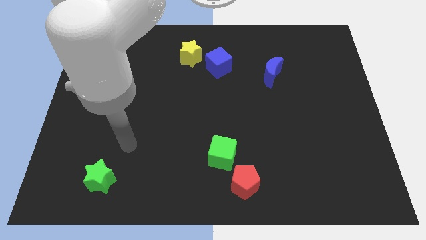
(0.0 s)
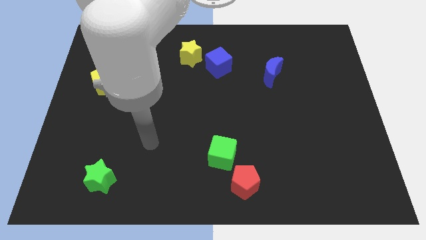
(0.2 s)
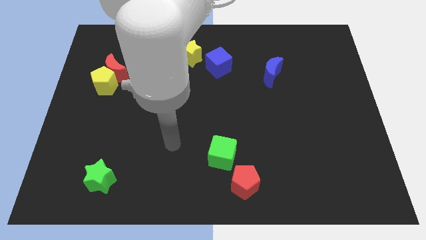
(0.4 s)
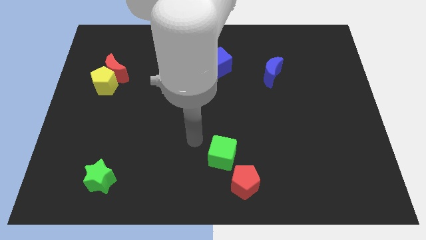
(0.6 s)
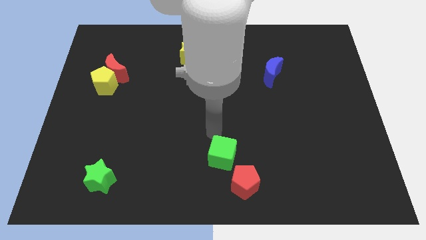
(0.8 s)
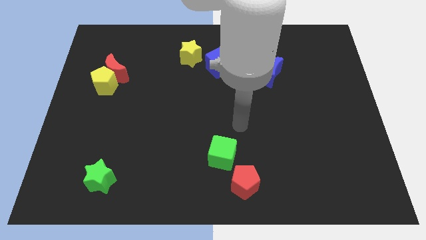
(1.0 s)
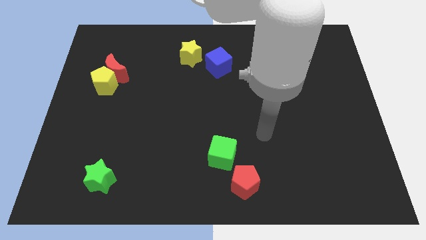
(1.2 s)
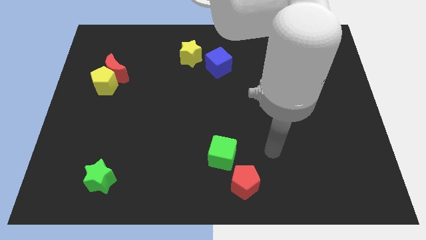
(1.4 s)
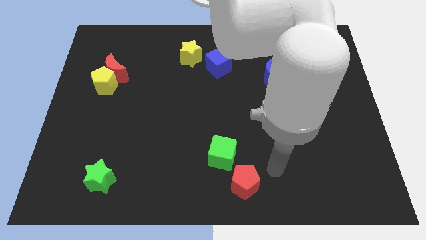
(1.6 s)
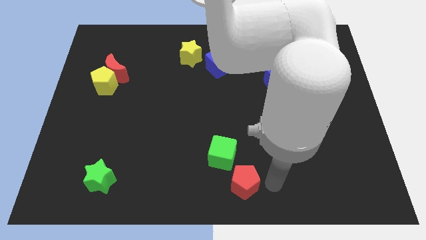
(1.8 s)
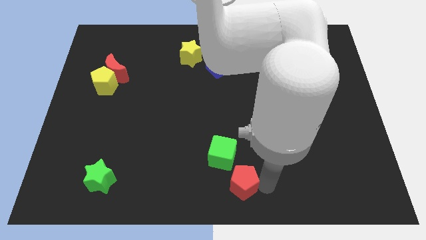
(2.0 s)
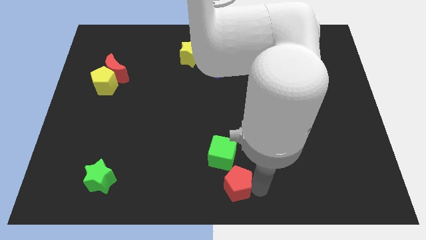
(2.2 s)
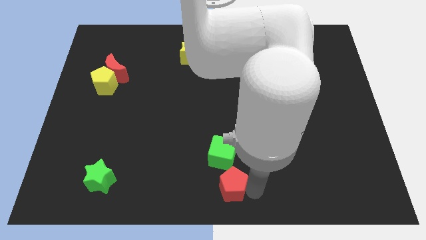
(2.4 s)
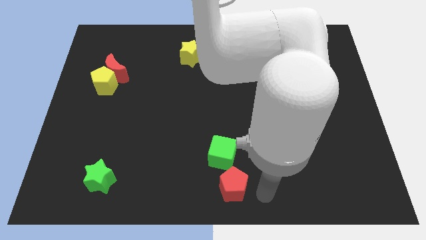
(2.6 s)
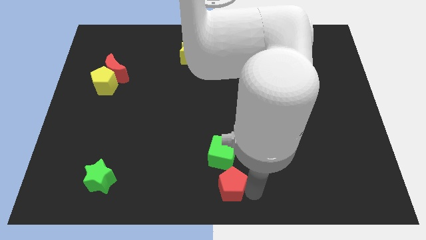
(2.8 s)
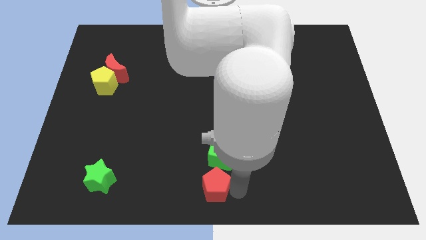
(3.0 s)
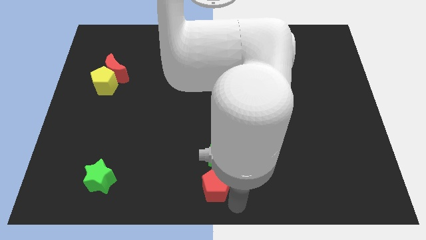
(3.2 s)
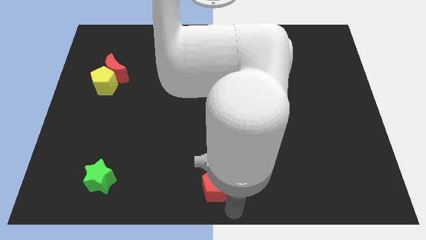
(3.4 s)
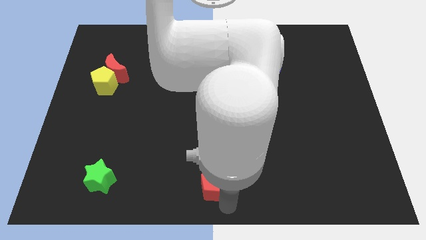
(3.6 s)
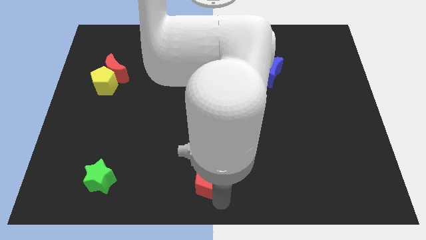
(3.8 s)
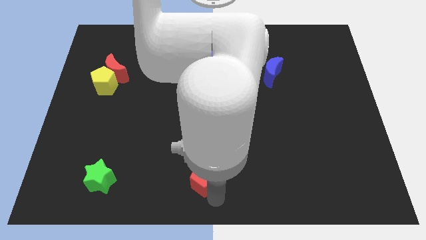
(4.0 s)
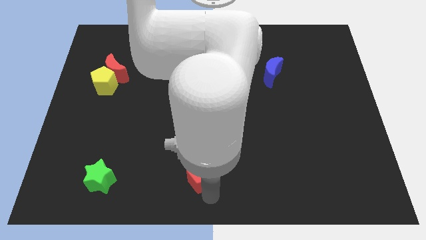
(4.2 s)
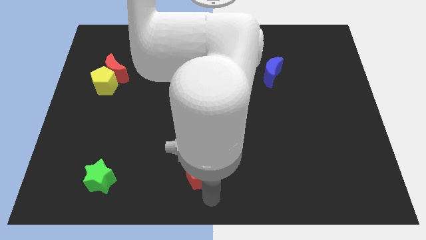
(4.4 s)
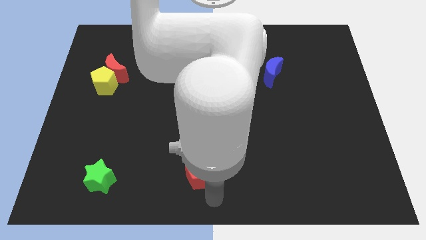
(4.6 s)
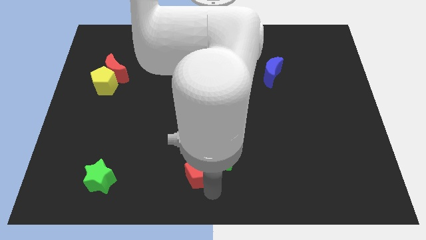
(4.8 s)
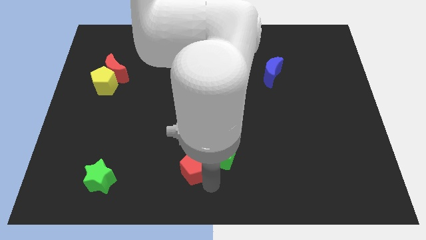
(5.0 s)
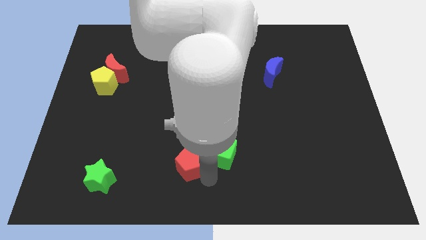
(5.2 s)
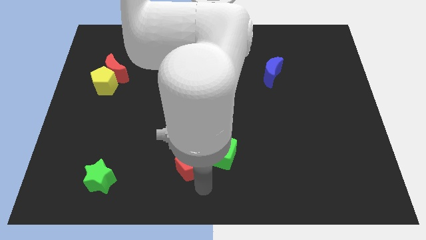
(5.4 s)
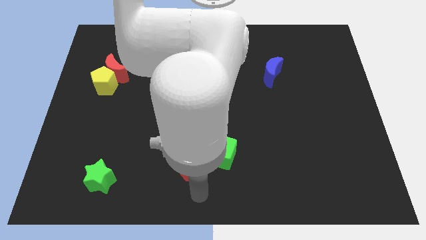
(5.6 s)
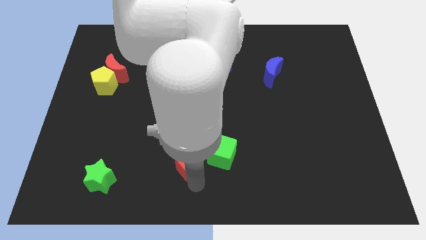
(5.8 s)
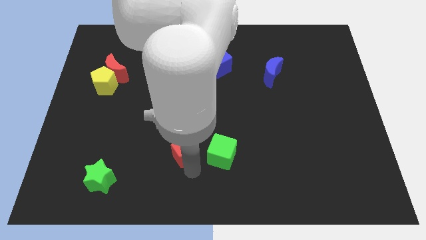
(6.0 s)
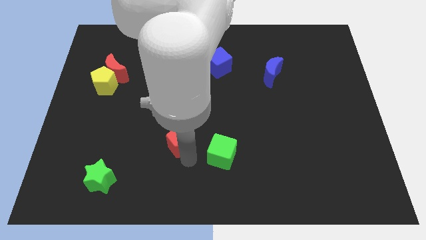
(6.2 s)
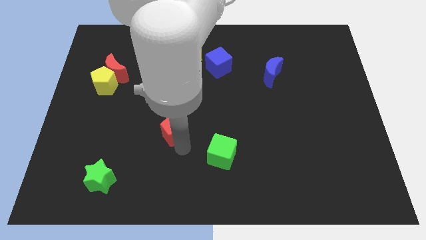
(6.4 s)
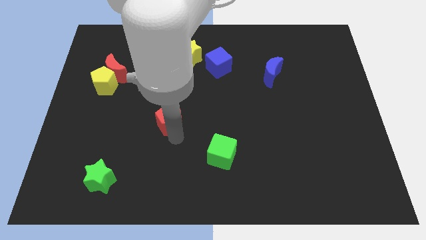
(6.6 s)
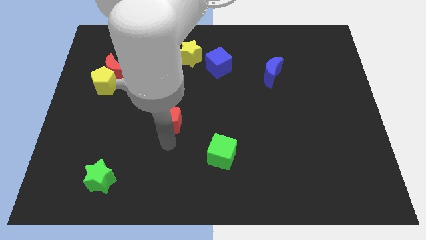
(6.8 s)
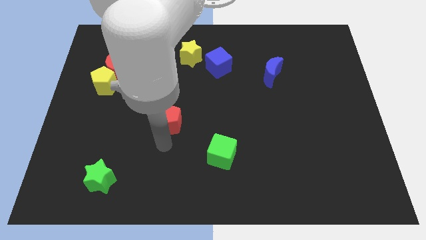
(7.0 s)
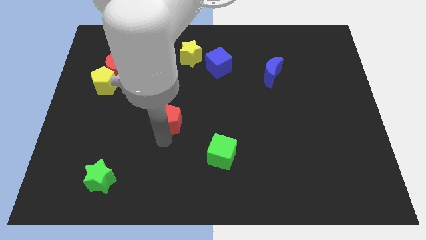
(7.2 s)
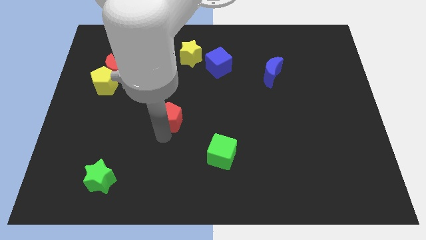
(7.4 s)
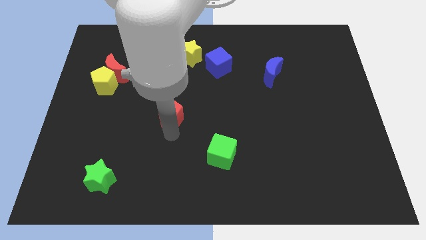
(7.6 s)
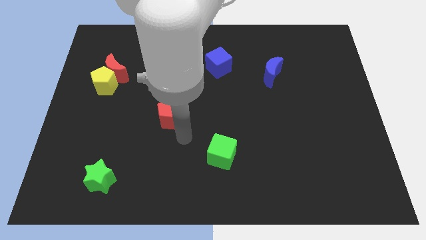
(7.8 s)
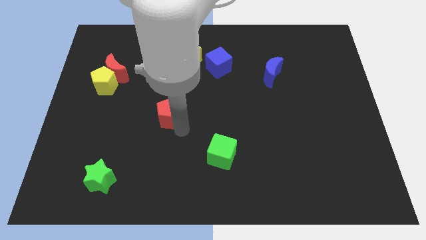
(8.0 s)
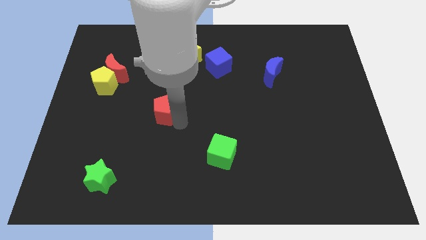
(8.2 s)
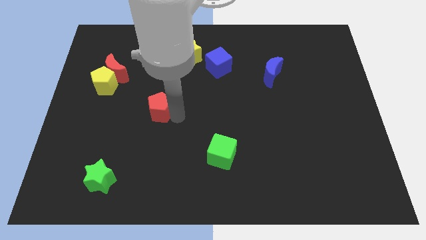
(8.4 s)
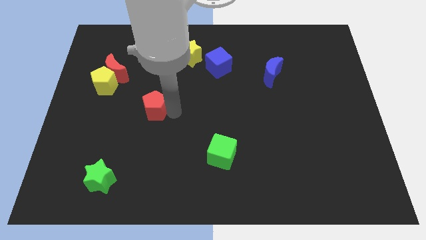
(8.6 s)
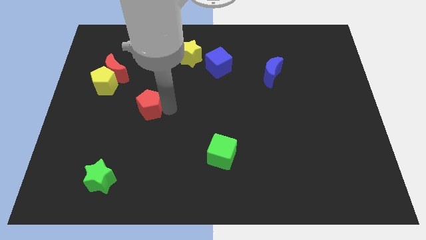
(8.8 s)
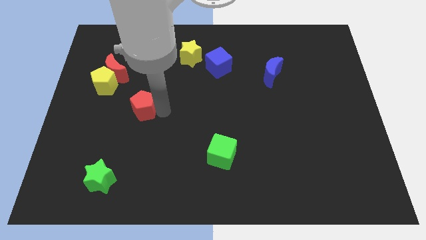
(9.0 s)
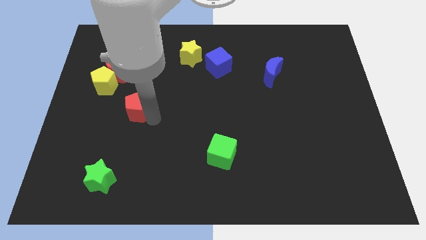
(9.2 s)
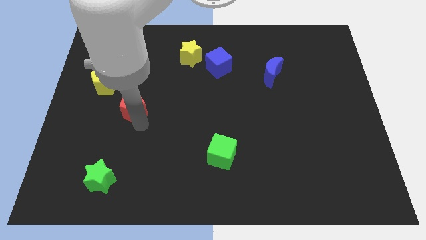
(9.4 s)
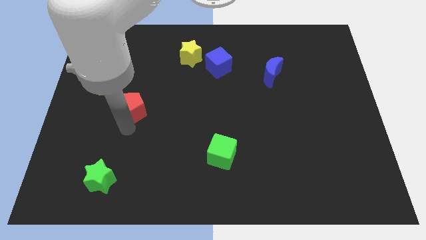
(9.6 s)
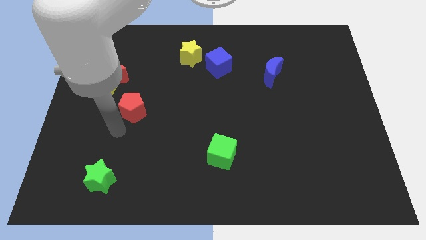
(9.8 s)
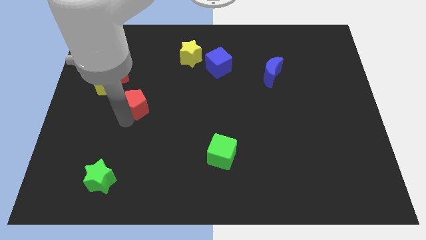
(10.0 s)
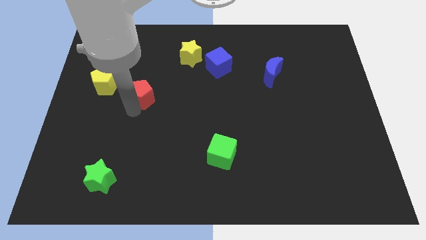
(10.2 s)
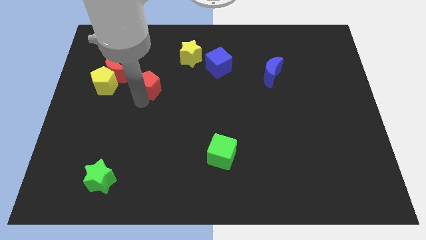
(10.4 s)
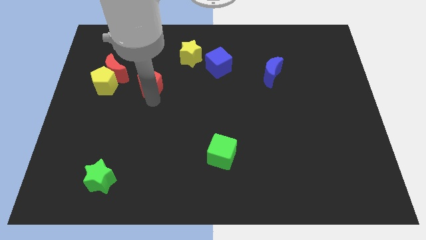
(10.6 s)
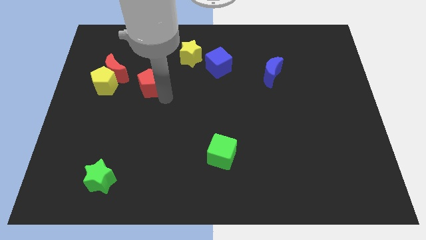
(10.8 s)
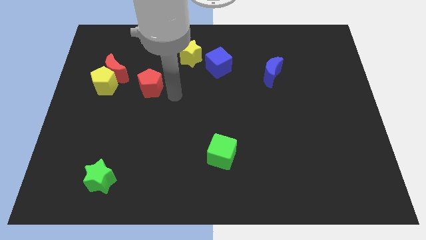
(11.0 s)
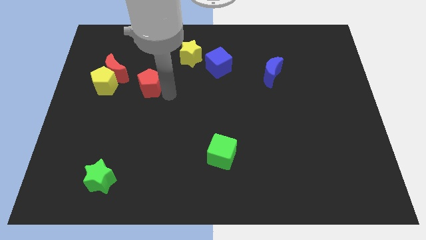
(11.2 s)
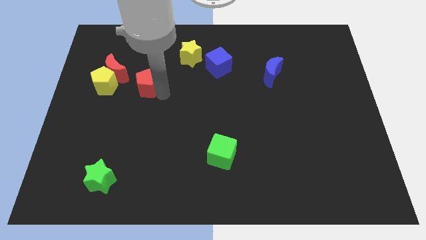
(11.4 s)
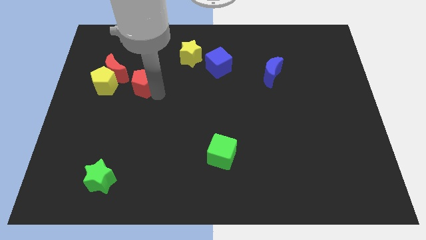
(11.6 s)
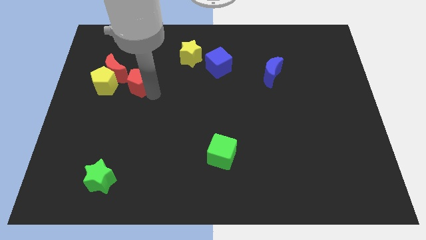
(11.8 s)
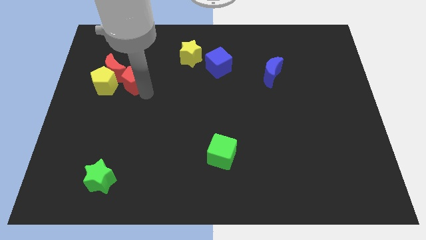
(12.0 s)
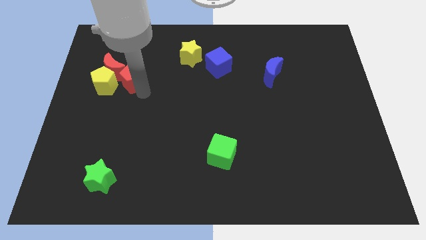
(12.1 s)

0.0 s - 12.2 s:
put the red pentagon to the red moon

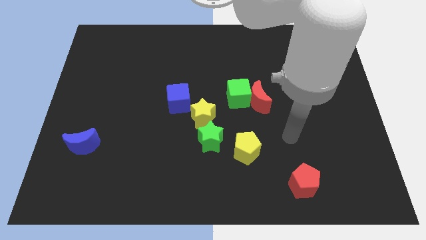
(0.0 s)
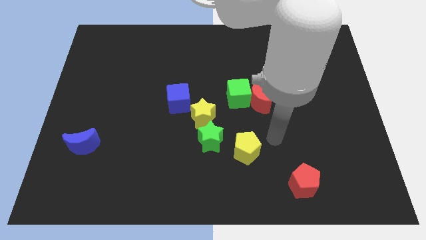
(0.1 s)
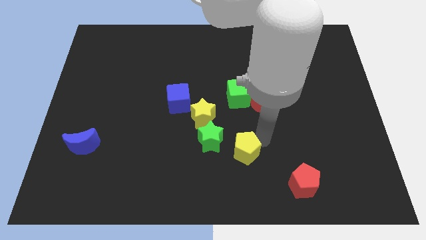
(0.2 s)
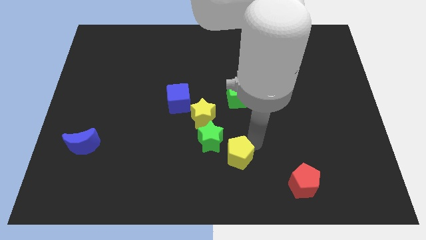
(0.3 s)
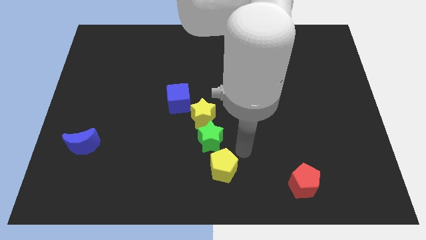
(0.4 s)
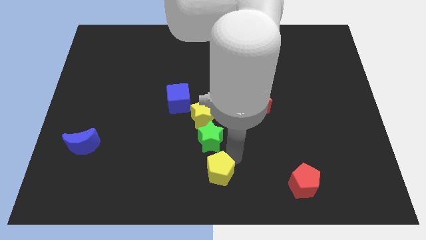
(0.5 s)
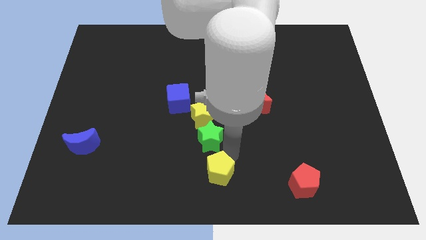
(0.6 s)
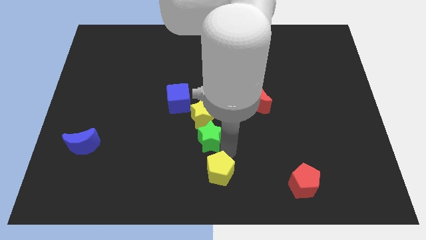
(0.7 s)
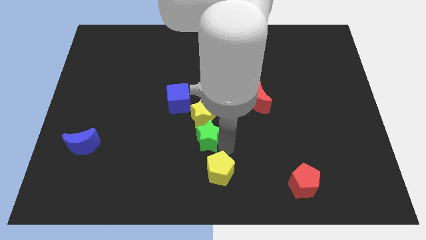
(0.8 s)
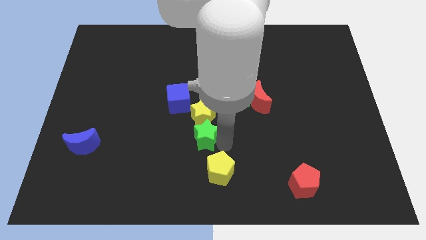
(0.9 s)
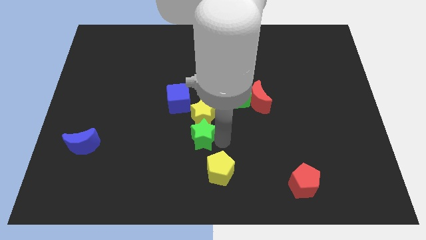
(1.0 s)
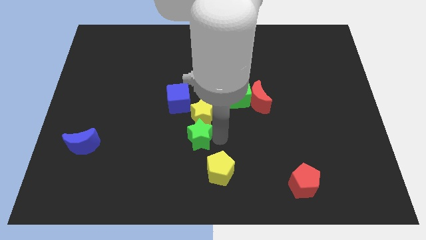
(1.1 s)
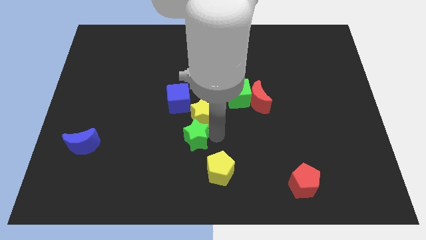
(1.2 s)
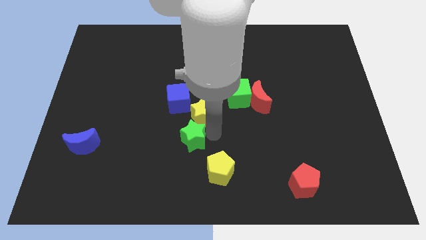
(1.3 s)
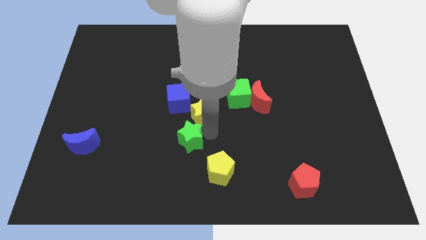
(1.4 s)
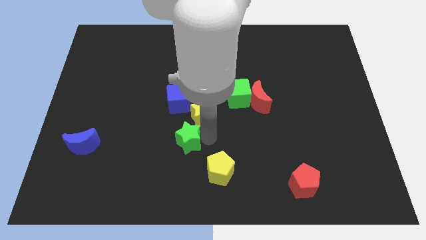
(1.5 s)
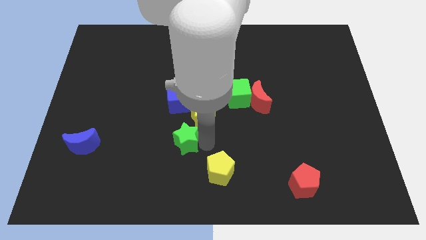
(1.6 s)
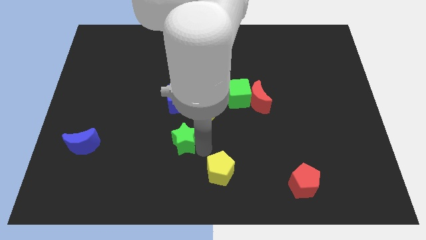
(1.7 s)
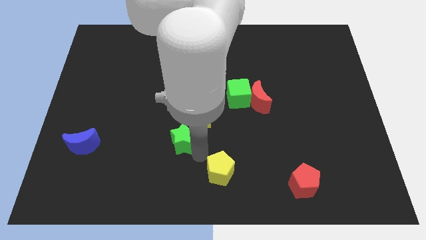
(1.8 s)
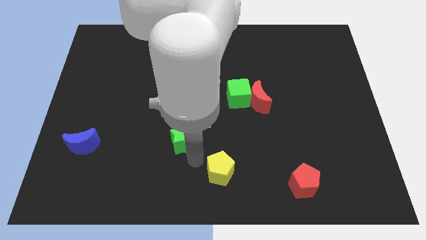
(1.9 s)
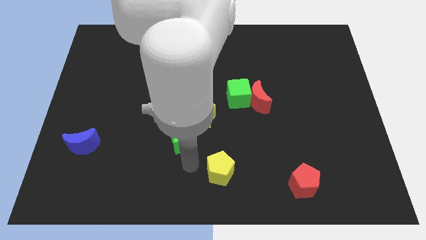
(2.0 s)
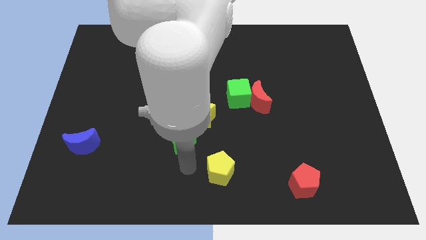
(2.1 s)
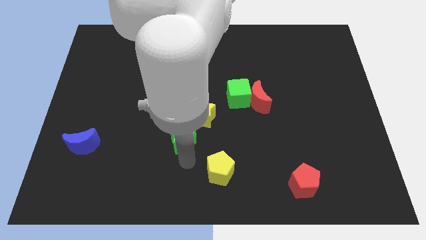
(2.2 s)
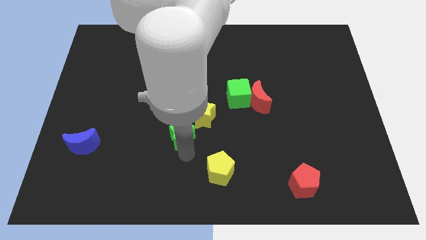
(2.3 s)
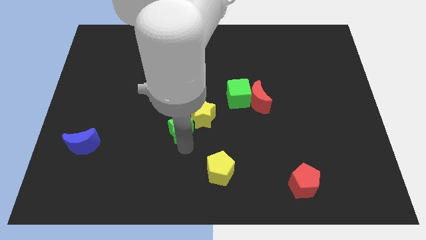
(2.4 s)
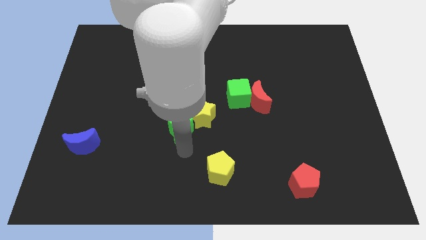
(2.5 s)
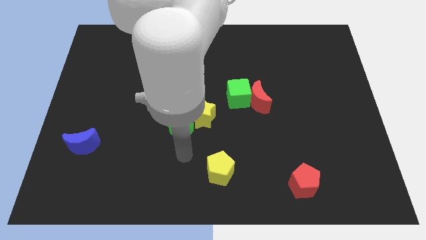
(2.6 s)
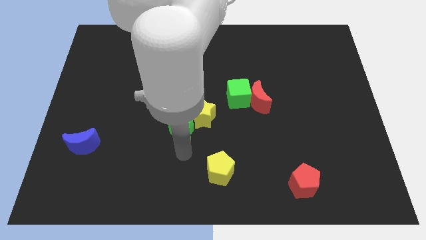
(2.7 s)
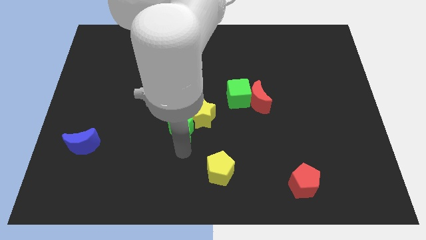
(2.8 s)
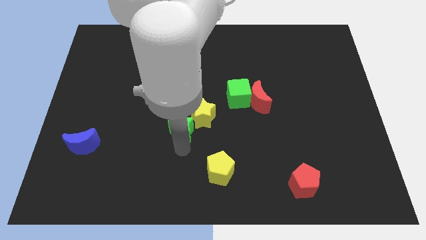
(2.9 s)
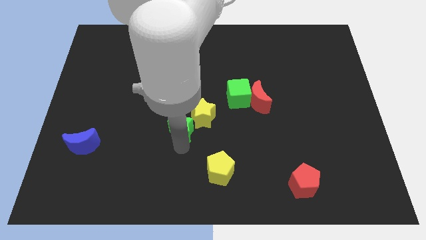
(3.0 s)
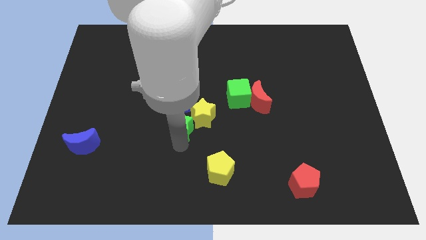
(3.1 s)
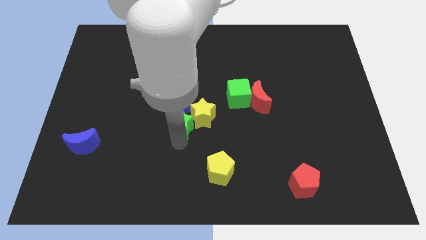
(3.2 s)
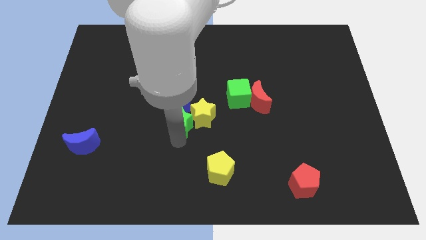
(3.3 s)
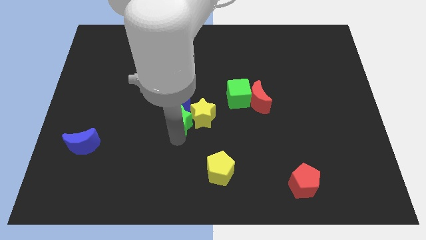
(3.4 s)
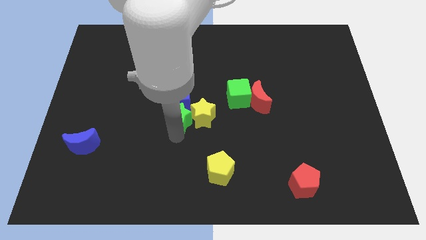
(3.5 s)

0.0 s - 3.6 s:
slide the green star close to the blue cube
